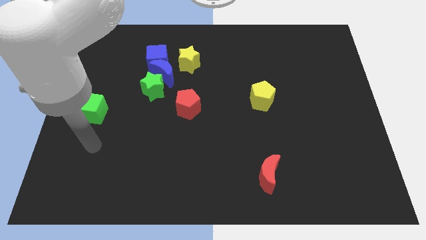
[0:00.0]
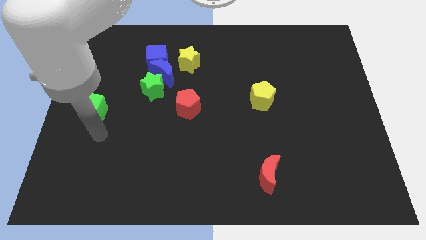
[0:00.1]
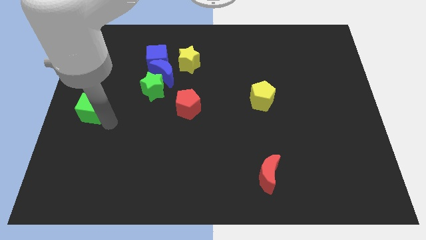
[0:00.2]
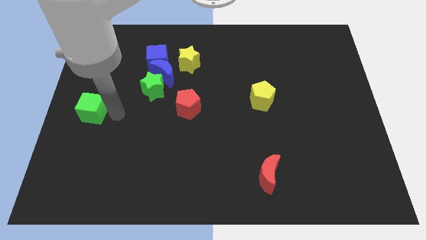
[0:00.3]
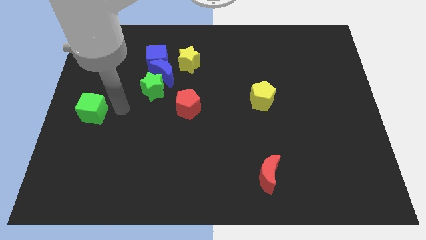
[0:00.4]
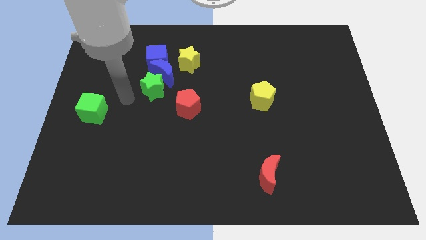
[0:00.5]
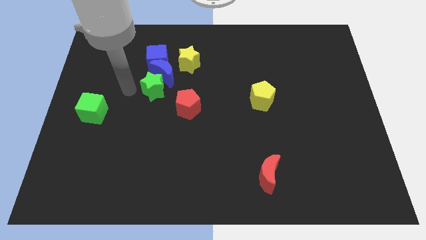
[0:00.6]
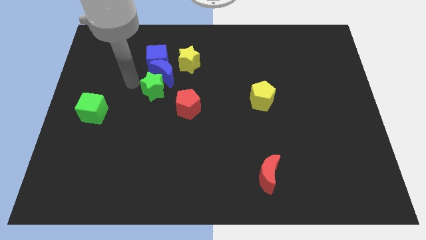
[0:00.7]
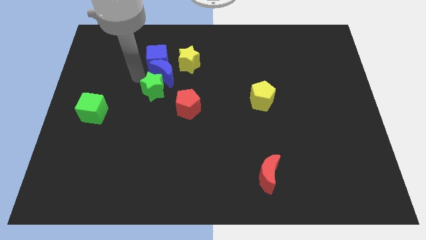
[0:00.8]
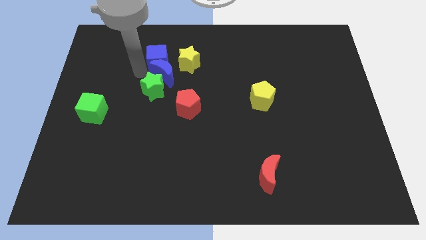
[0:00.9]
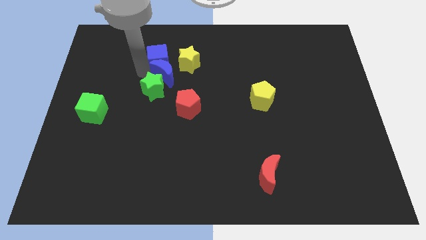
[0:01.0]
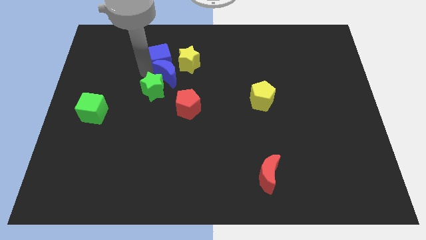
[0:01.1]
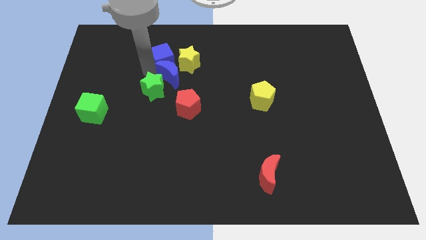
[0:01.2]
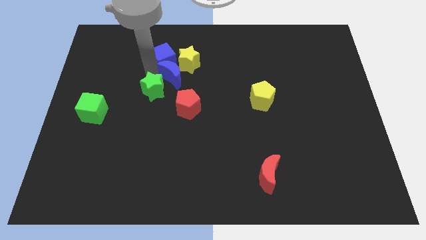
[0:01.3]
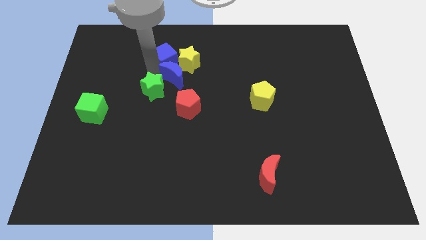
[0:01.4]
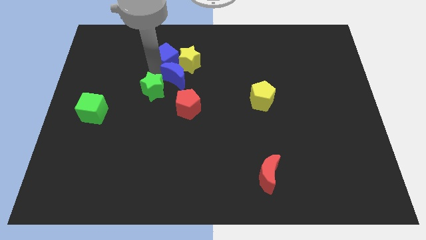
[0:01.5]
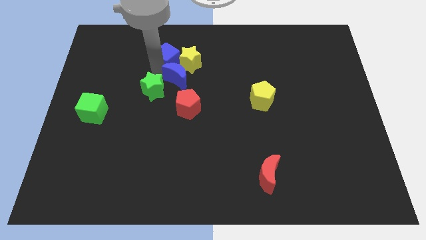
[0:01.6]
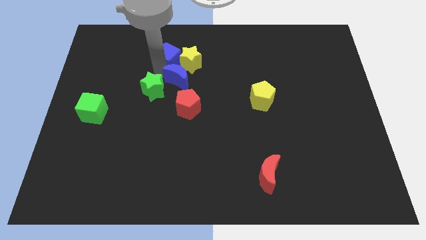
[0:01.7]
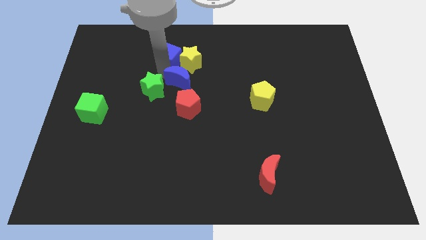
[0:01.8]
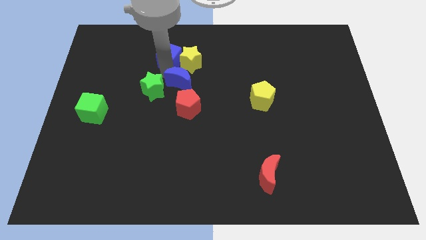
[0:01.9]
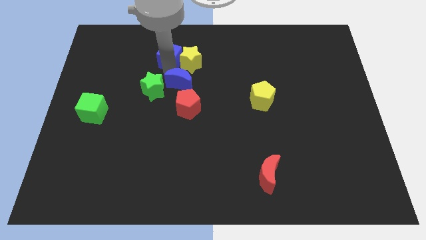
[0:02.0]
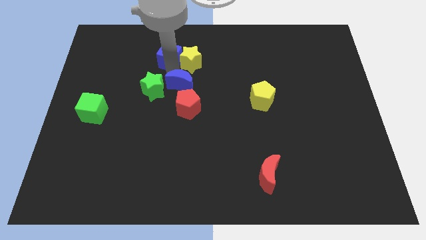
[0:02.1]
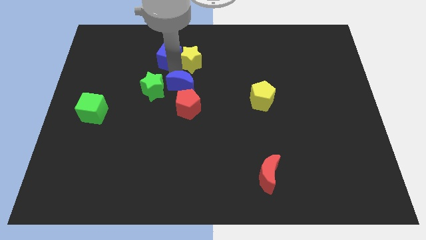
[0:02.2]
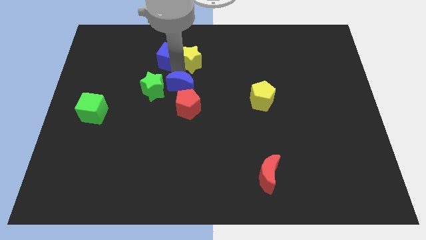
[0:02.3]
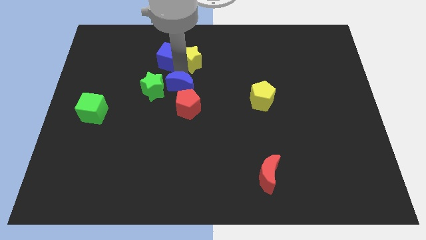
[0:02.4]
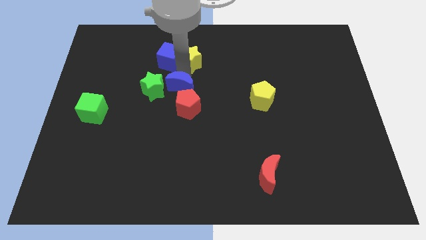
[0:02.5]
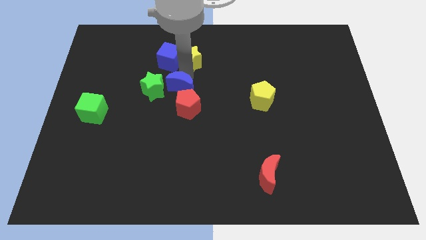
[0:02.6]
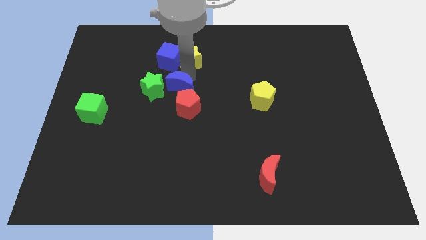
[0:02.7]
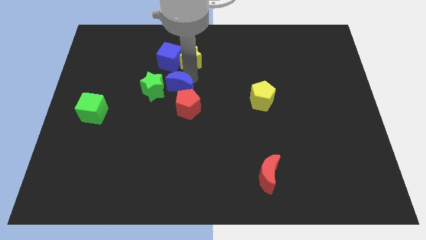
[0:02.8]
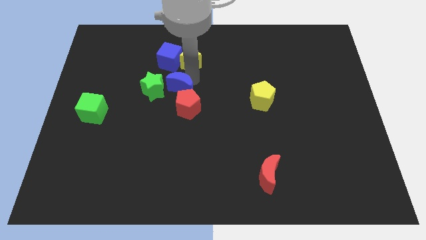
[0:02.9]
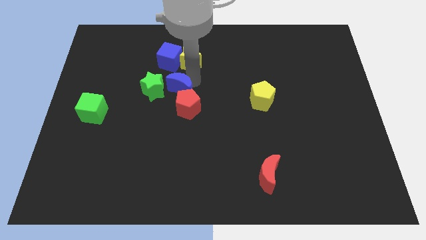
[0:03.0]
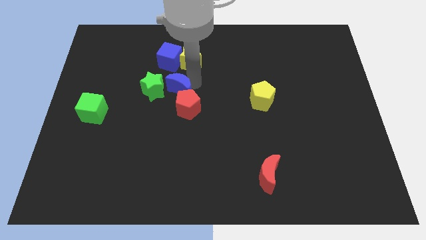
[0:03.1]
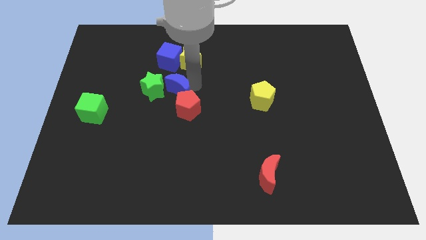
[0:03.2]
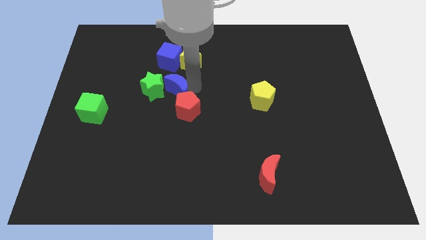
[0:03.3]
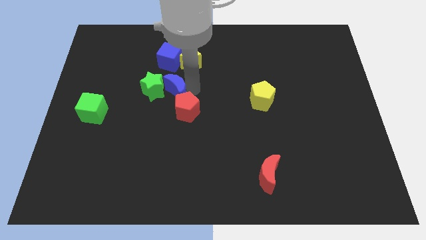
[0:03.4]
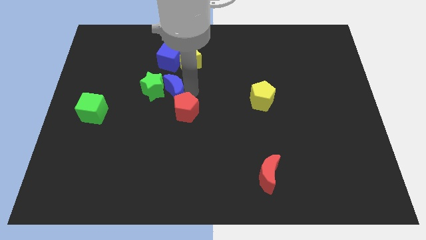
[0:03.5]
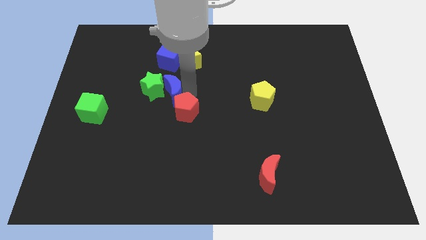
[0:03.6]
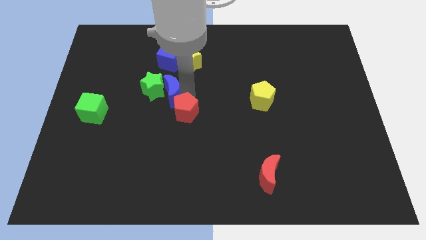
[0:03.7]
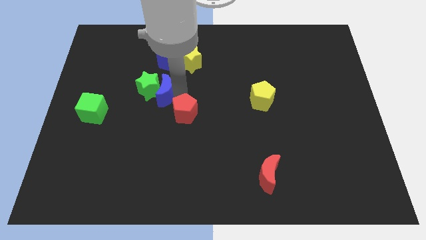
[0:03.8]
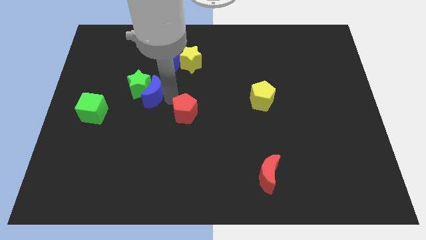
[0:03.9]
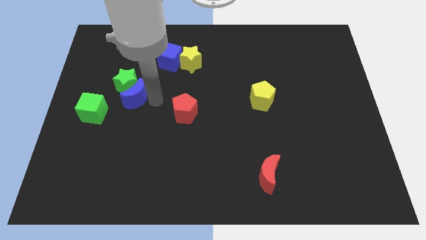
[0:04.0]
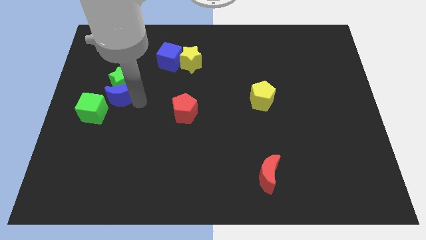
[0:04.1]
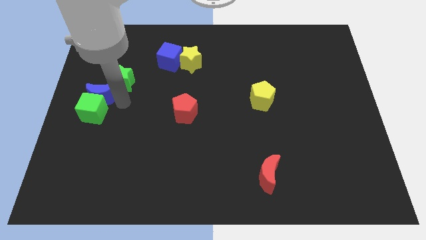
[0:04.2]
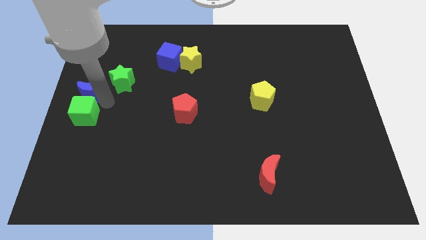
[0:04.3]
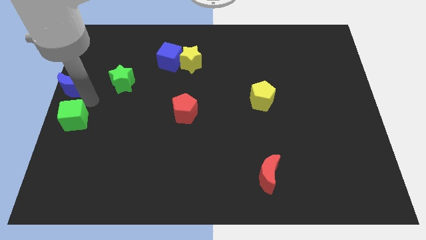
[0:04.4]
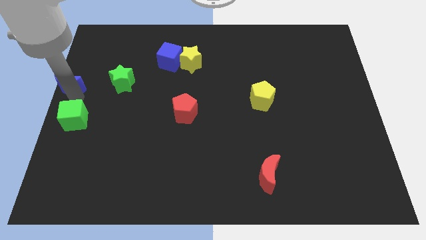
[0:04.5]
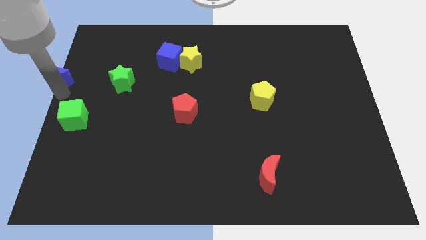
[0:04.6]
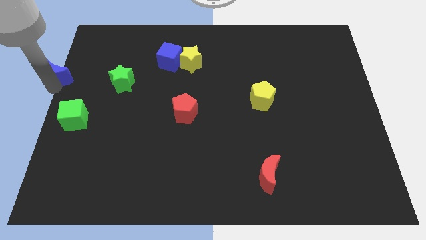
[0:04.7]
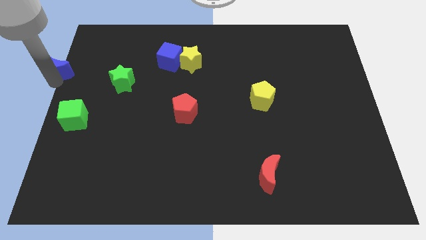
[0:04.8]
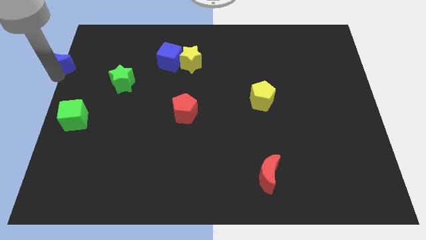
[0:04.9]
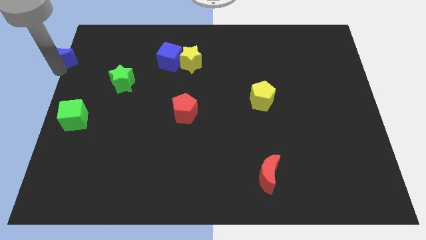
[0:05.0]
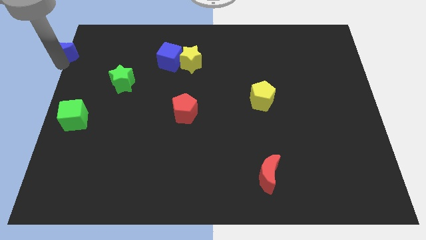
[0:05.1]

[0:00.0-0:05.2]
move the blue moon to the top left corner

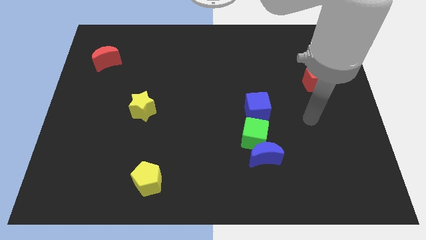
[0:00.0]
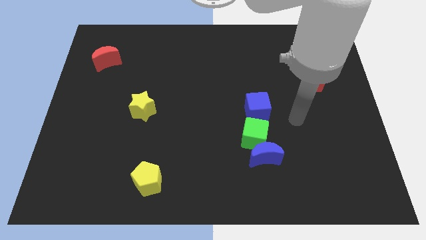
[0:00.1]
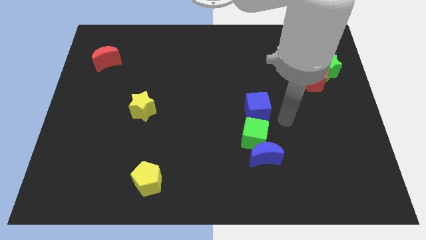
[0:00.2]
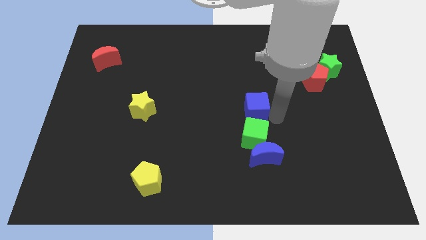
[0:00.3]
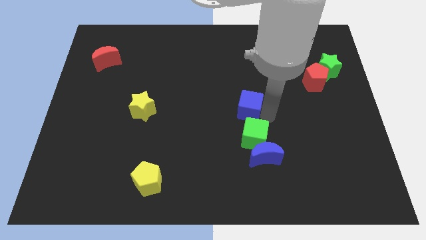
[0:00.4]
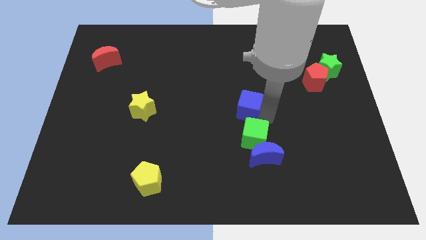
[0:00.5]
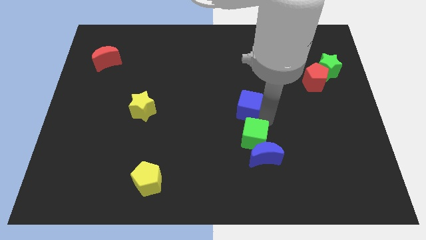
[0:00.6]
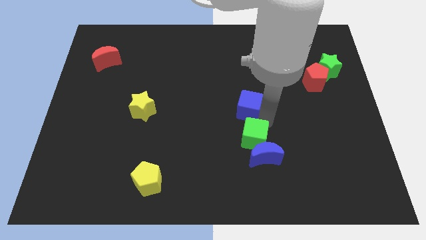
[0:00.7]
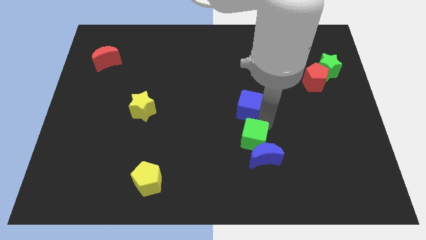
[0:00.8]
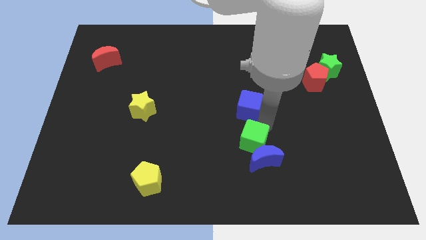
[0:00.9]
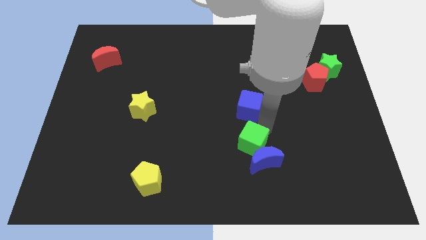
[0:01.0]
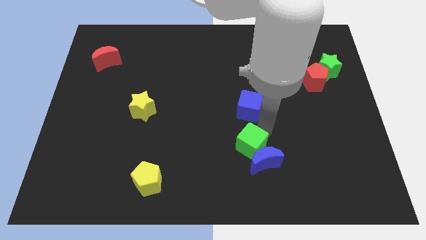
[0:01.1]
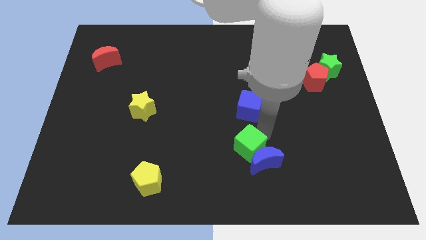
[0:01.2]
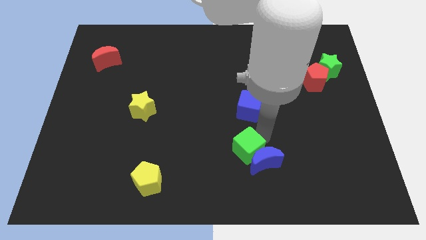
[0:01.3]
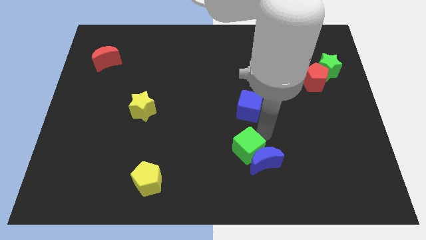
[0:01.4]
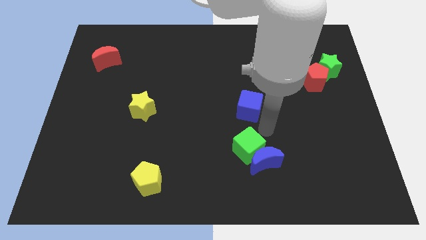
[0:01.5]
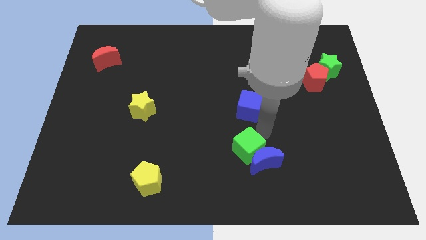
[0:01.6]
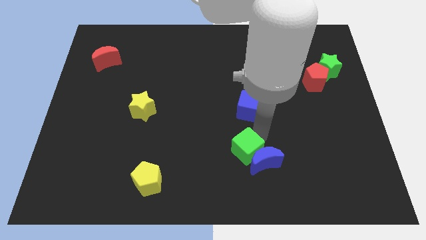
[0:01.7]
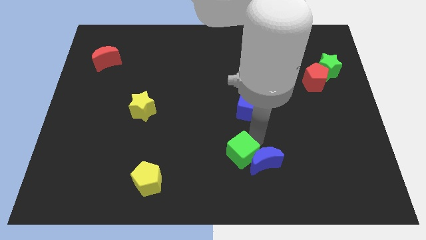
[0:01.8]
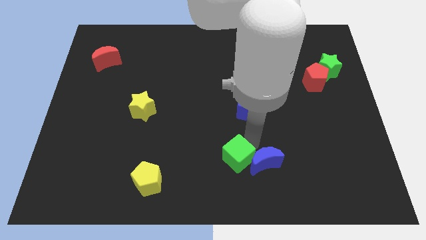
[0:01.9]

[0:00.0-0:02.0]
push the green cube to the bottom
